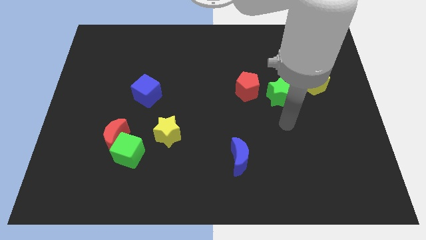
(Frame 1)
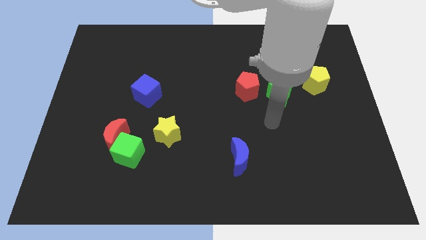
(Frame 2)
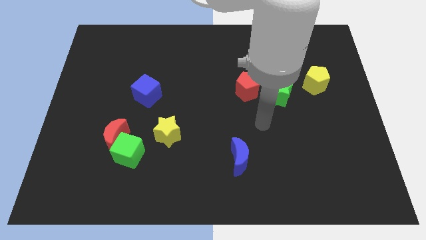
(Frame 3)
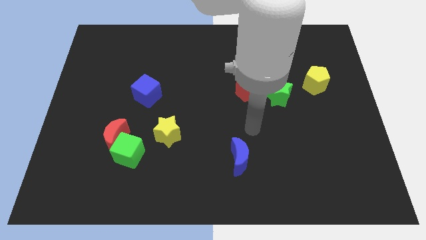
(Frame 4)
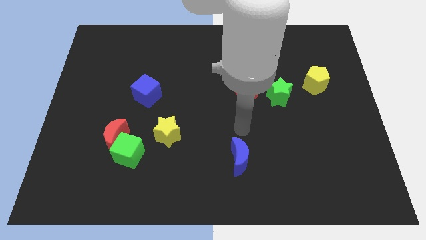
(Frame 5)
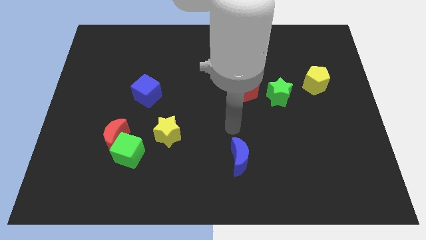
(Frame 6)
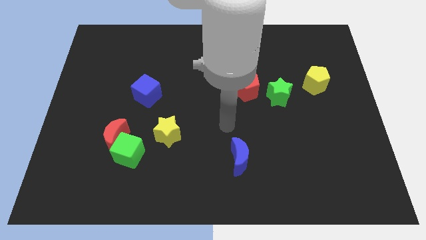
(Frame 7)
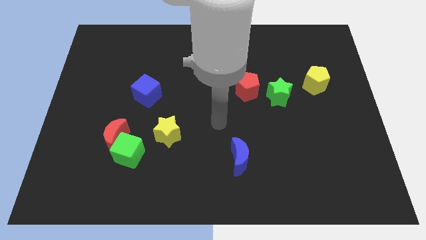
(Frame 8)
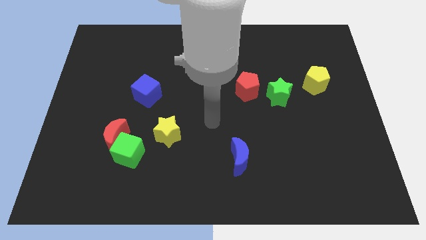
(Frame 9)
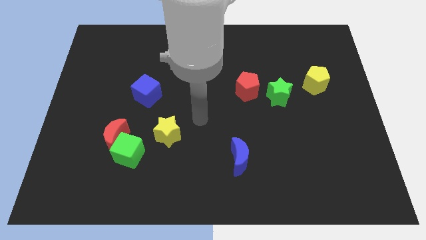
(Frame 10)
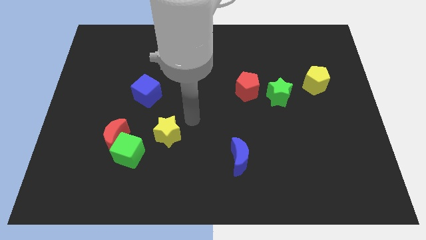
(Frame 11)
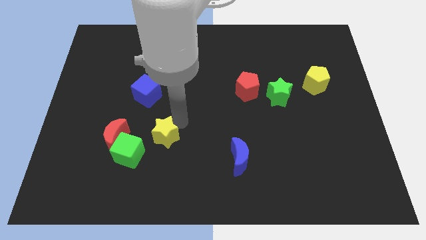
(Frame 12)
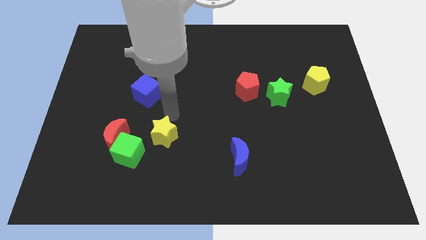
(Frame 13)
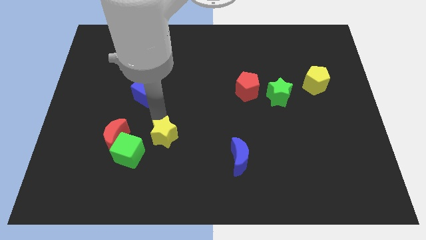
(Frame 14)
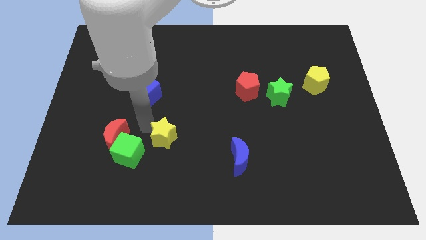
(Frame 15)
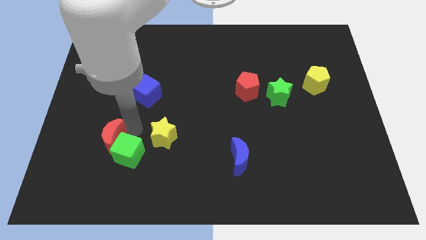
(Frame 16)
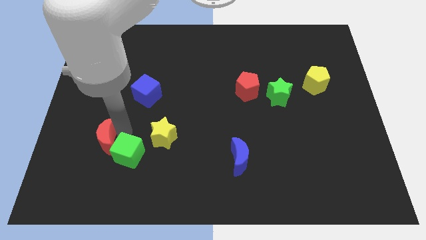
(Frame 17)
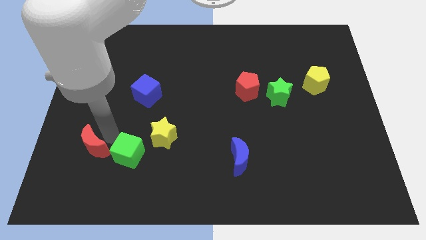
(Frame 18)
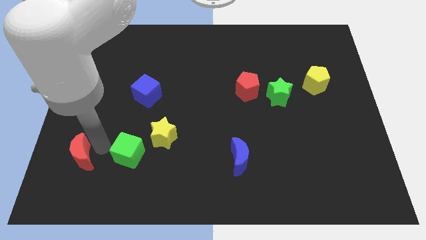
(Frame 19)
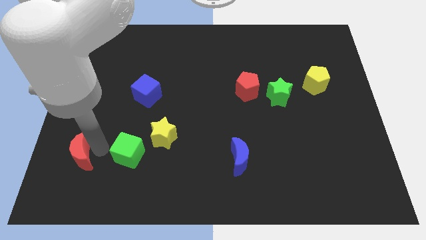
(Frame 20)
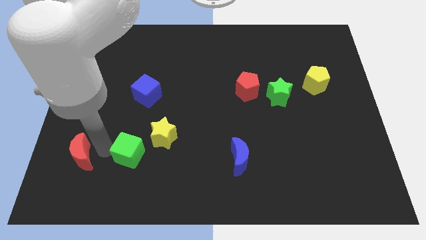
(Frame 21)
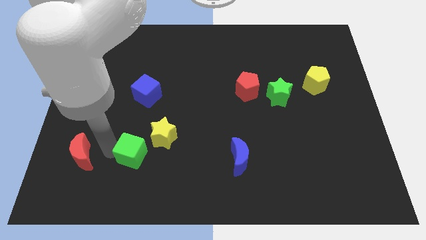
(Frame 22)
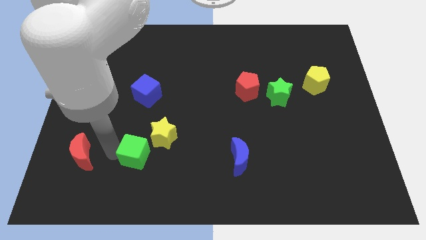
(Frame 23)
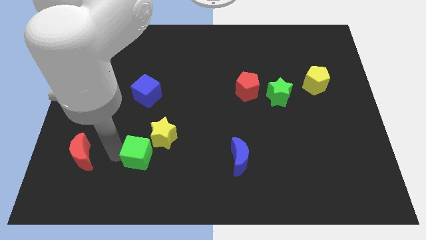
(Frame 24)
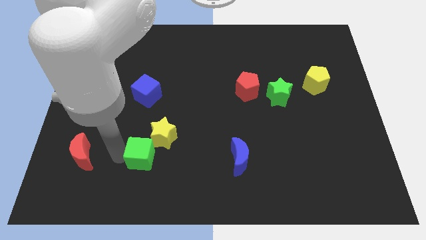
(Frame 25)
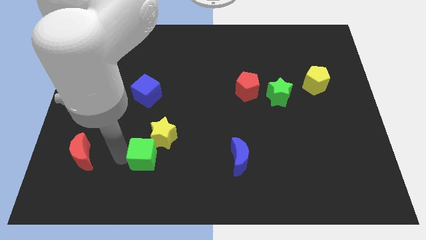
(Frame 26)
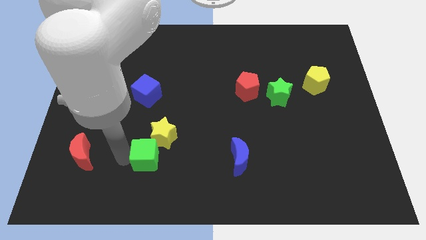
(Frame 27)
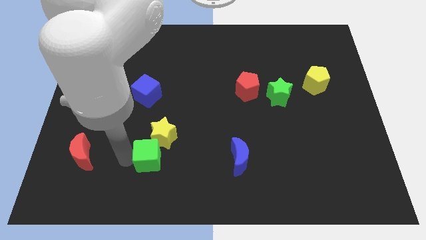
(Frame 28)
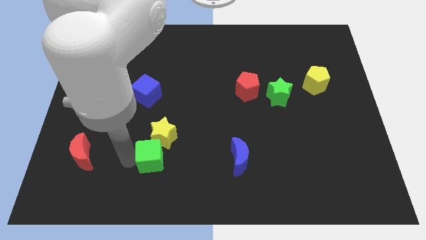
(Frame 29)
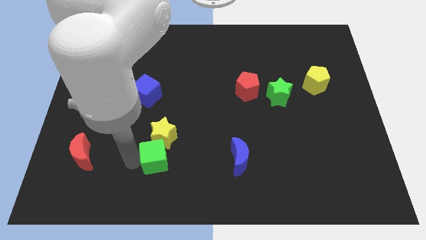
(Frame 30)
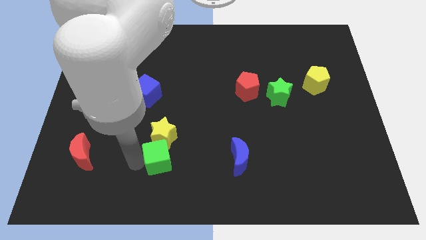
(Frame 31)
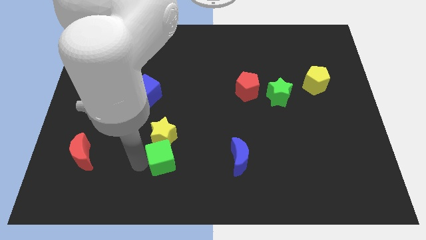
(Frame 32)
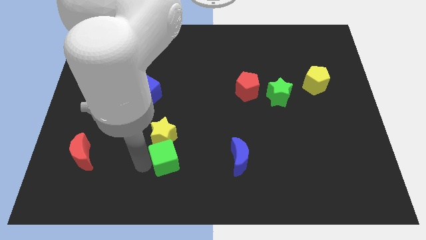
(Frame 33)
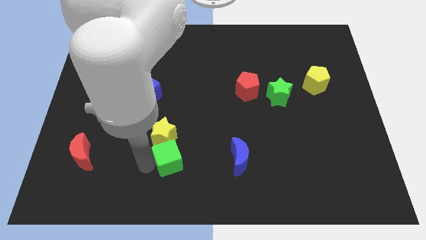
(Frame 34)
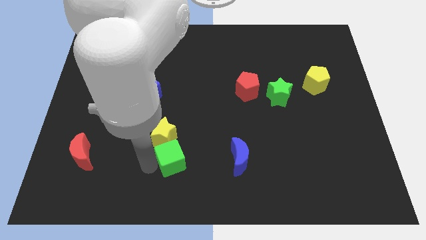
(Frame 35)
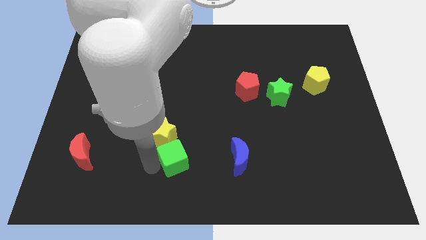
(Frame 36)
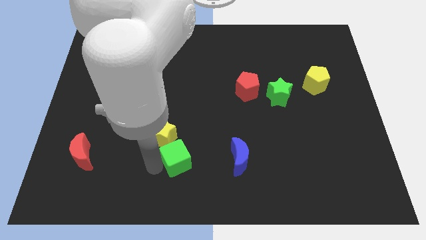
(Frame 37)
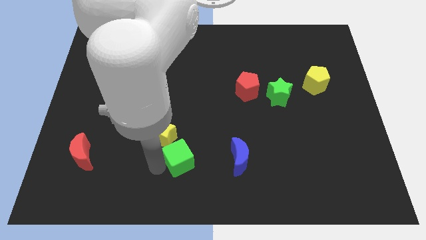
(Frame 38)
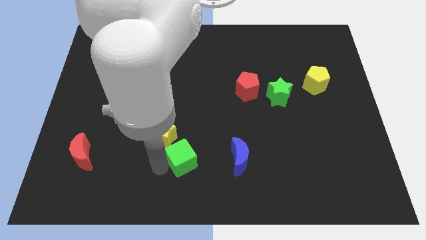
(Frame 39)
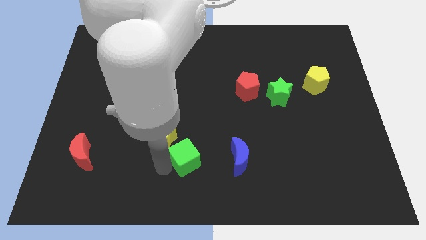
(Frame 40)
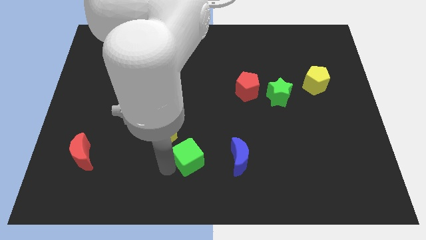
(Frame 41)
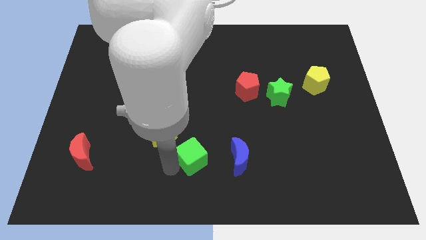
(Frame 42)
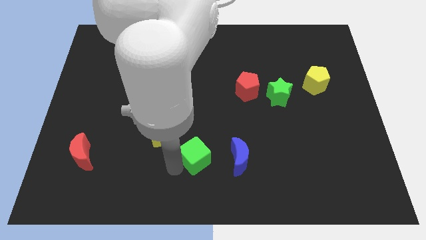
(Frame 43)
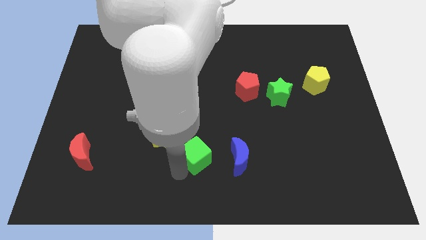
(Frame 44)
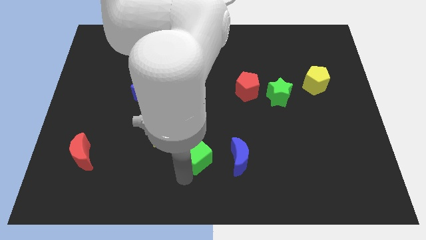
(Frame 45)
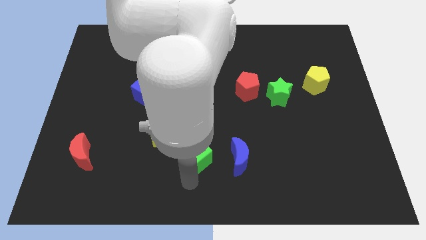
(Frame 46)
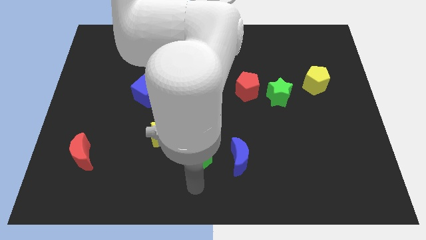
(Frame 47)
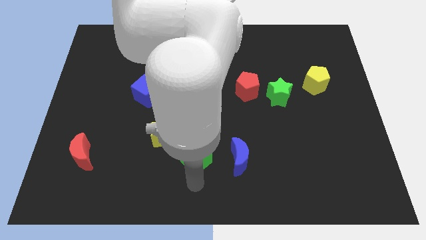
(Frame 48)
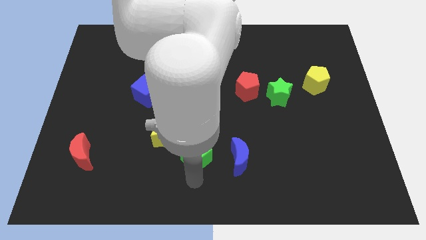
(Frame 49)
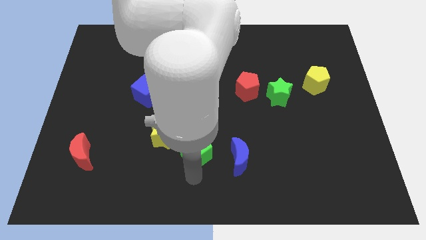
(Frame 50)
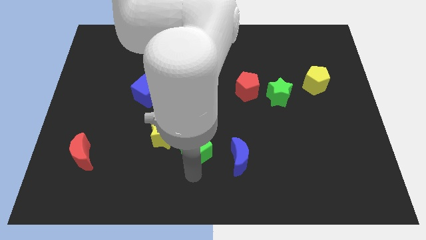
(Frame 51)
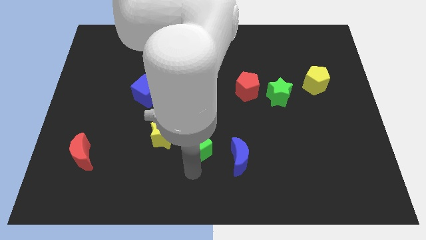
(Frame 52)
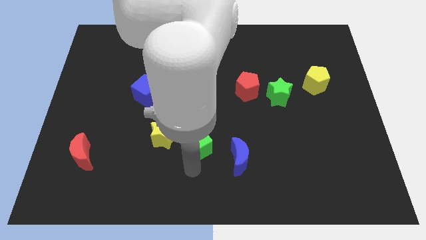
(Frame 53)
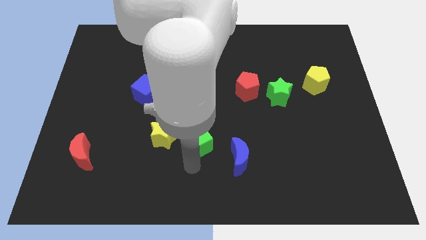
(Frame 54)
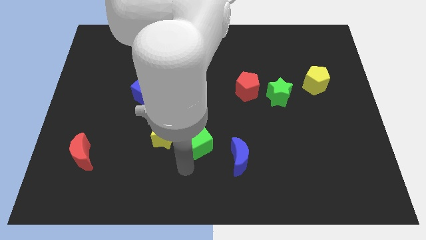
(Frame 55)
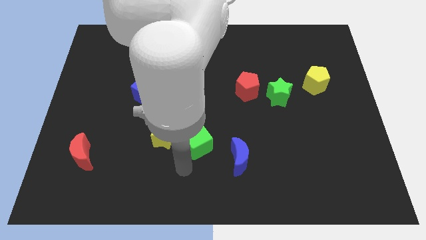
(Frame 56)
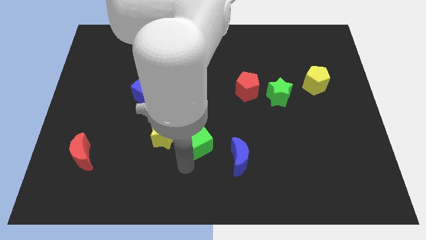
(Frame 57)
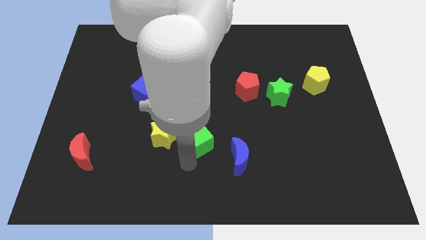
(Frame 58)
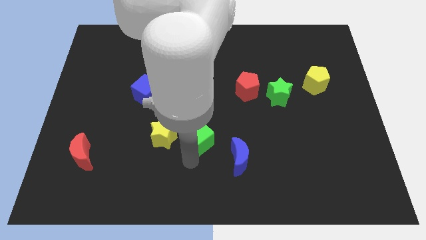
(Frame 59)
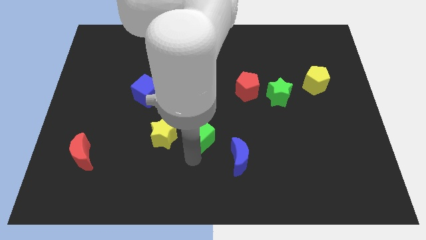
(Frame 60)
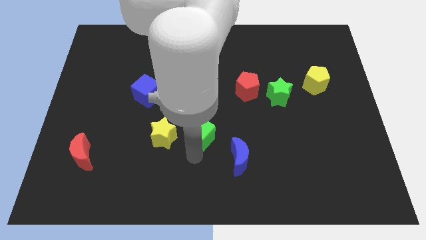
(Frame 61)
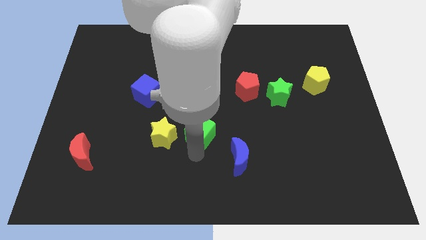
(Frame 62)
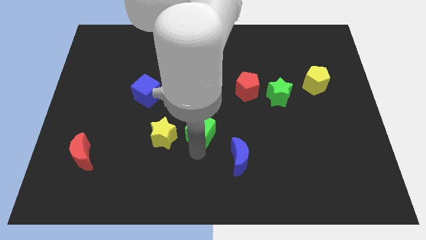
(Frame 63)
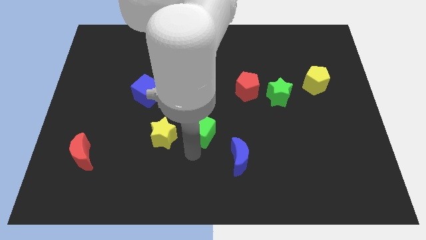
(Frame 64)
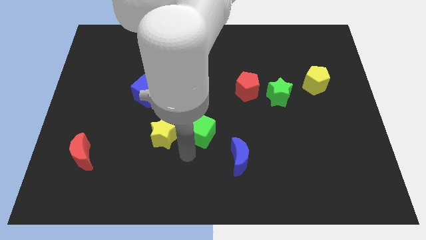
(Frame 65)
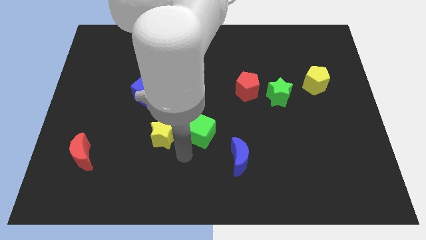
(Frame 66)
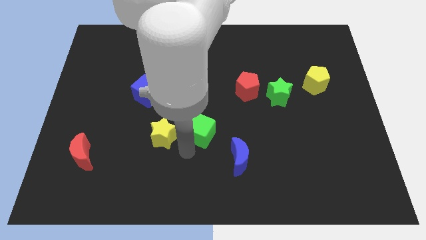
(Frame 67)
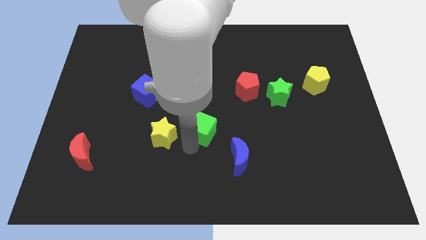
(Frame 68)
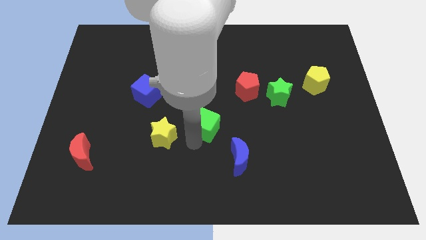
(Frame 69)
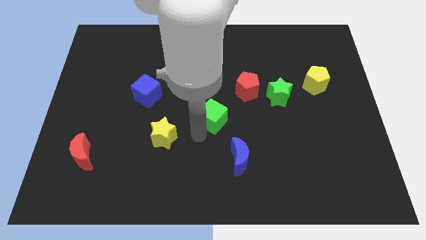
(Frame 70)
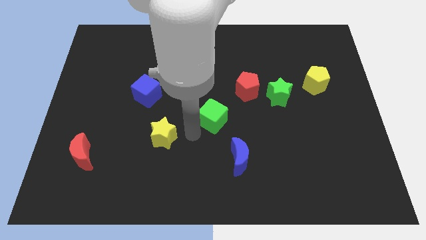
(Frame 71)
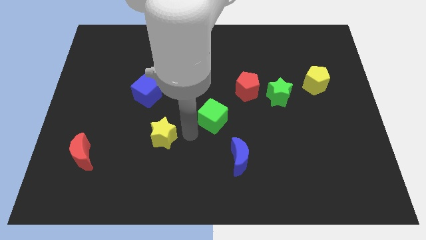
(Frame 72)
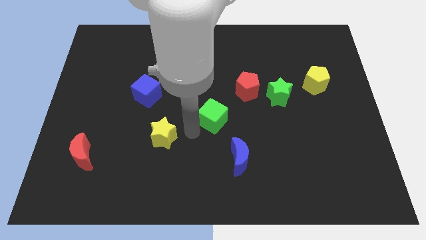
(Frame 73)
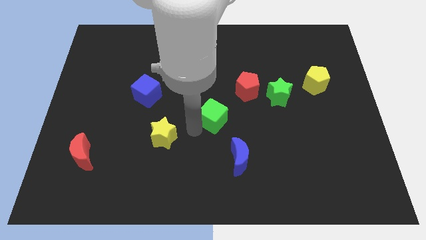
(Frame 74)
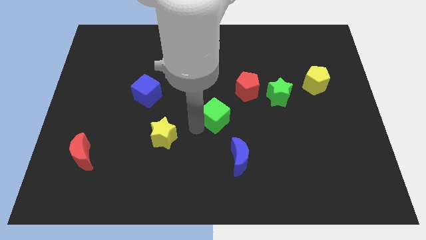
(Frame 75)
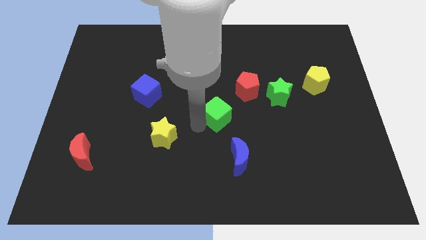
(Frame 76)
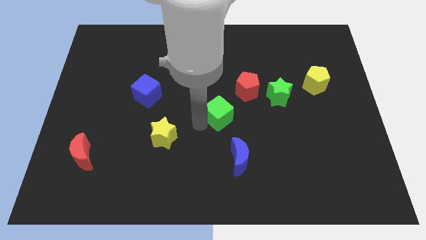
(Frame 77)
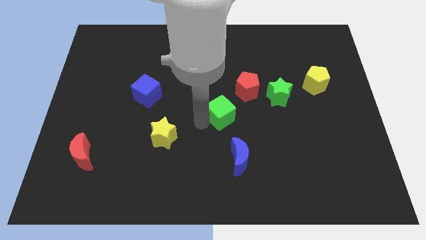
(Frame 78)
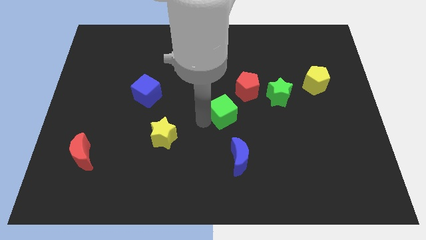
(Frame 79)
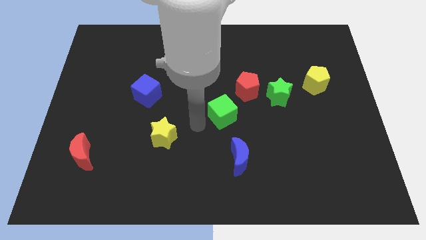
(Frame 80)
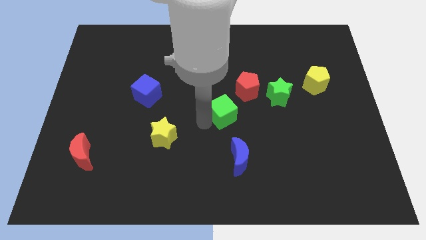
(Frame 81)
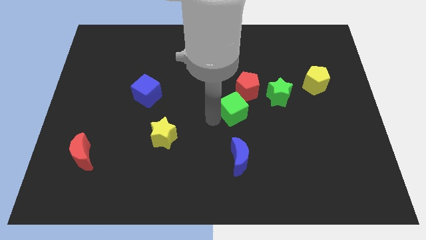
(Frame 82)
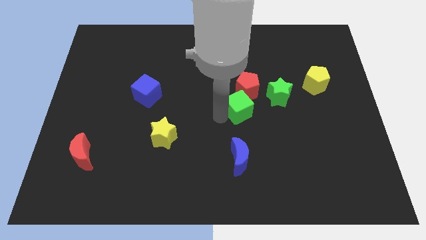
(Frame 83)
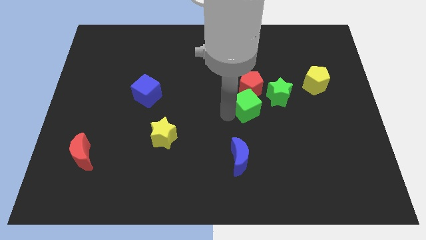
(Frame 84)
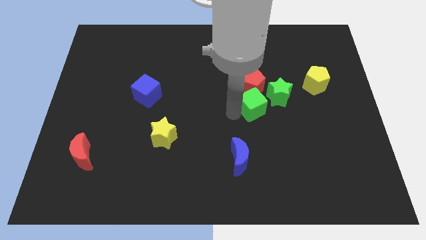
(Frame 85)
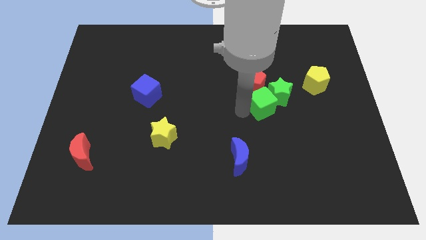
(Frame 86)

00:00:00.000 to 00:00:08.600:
put the green cube towards the green star
